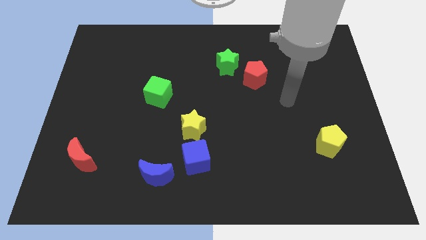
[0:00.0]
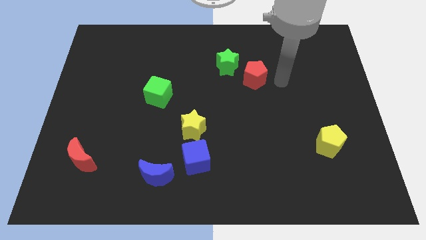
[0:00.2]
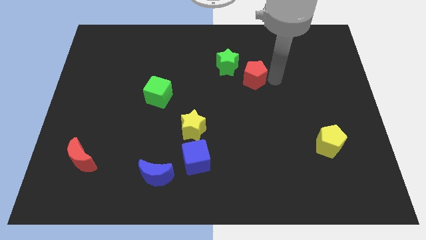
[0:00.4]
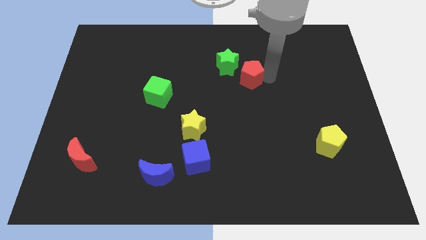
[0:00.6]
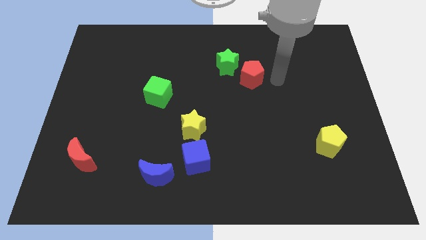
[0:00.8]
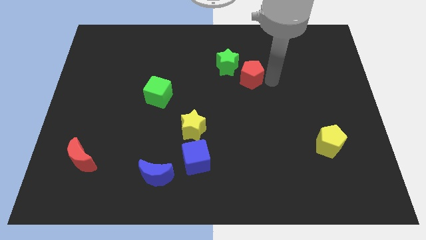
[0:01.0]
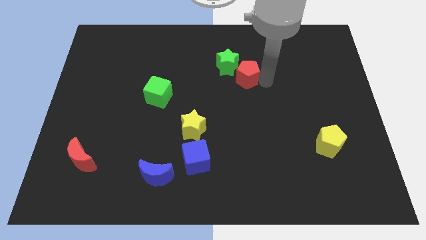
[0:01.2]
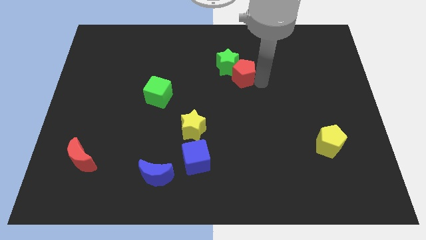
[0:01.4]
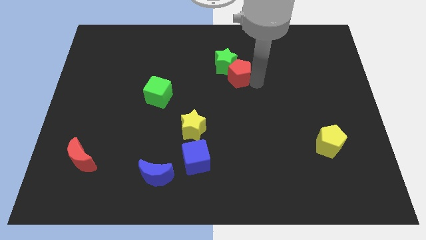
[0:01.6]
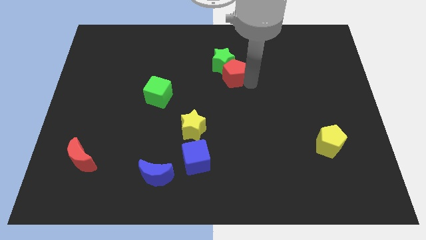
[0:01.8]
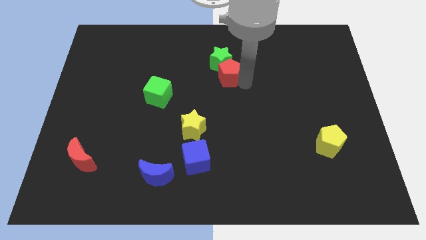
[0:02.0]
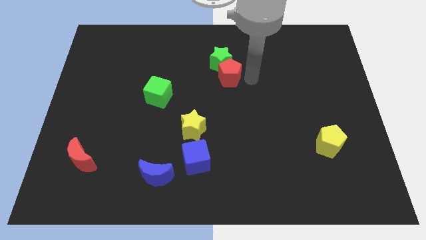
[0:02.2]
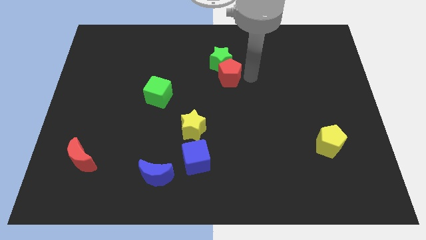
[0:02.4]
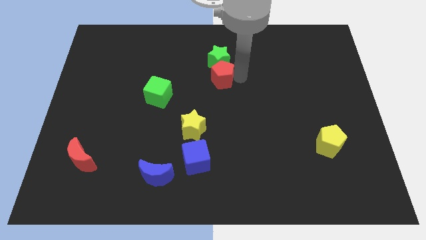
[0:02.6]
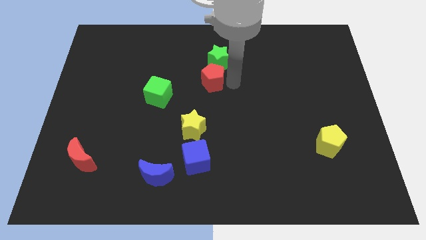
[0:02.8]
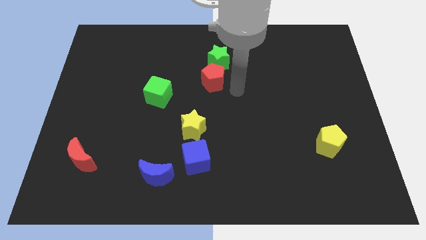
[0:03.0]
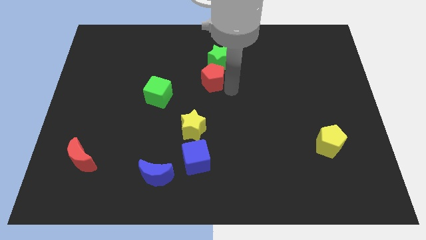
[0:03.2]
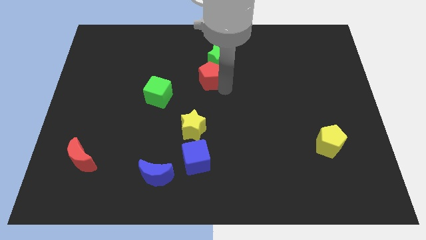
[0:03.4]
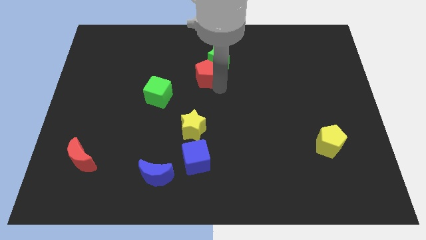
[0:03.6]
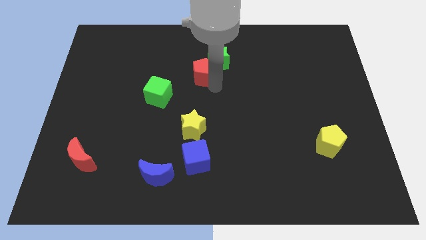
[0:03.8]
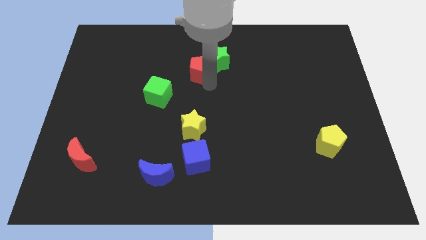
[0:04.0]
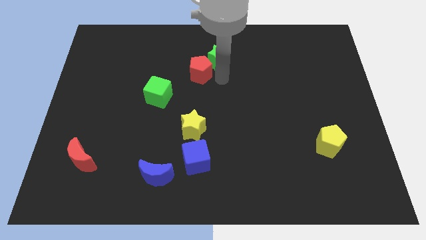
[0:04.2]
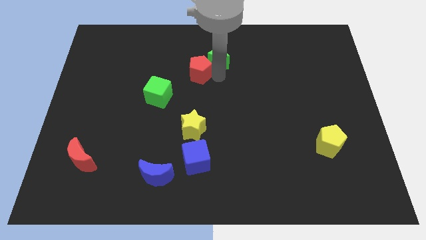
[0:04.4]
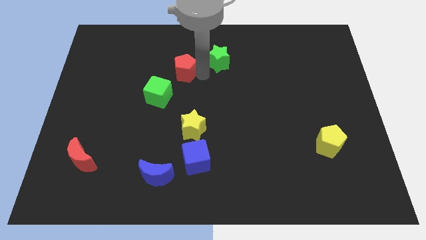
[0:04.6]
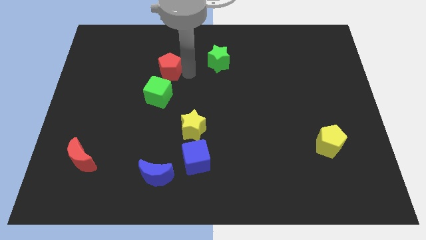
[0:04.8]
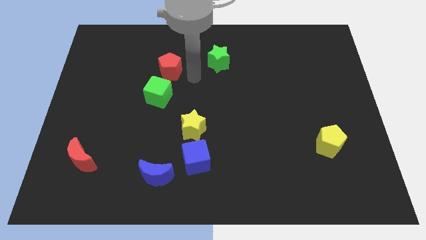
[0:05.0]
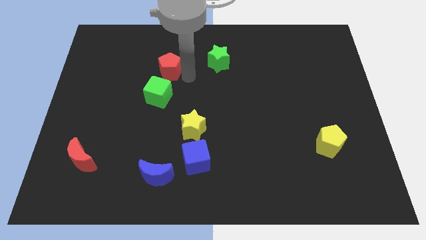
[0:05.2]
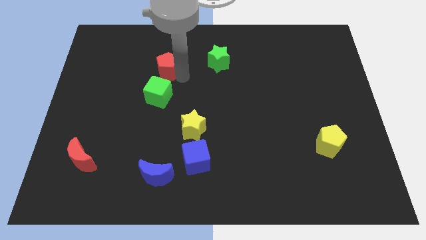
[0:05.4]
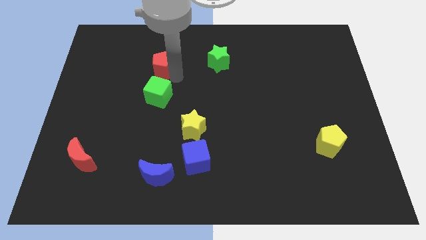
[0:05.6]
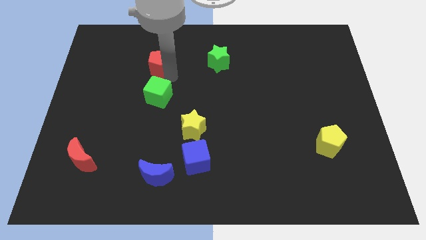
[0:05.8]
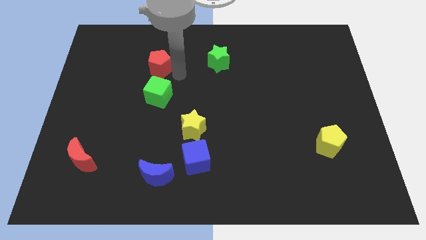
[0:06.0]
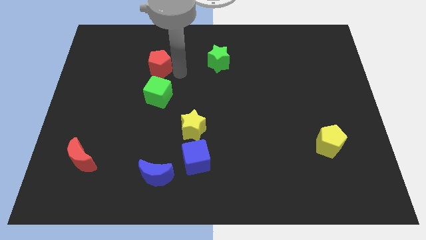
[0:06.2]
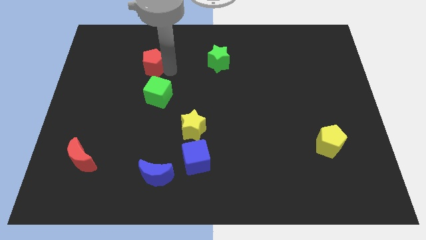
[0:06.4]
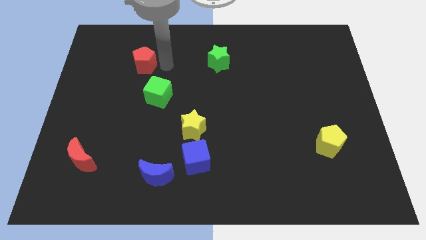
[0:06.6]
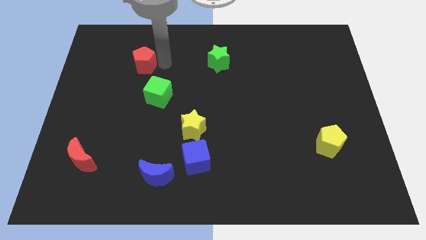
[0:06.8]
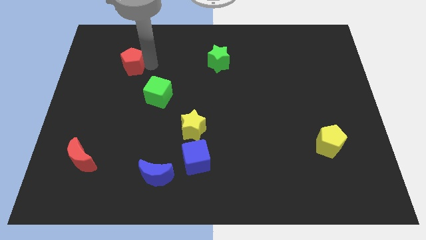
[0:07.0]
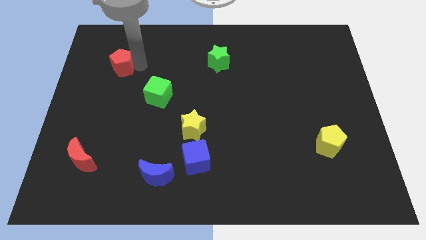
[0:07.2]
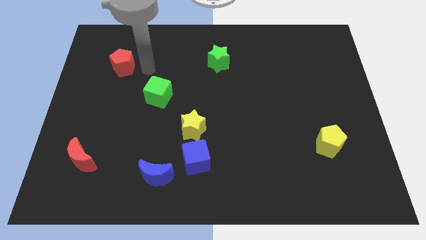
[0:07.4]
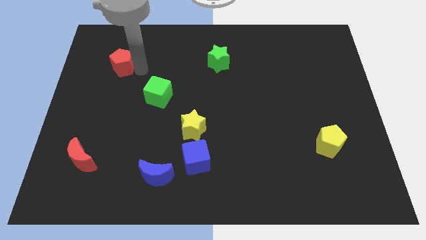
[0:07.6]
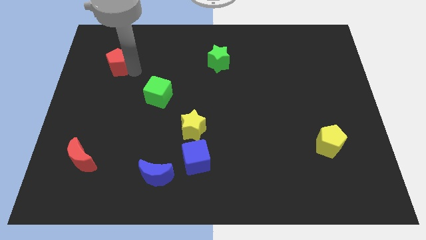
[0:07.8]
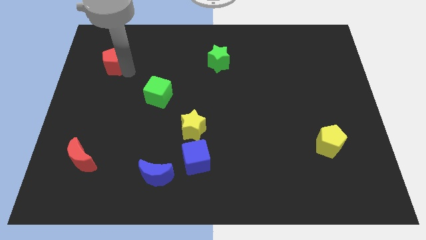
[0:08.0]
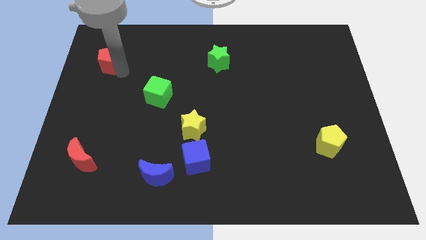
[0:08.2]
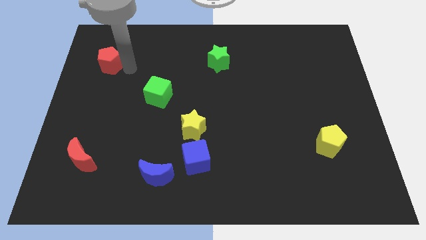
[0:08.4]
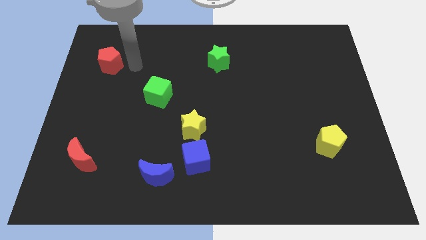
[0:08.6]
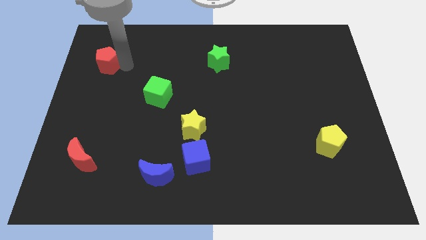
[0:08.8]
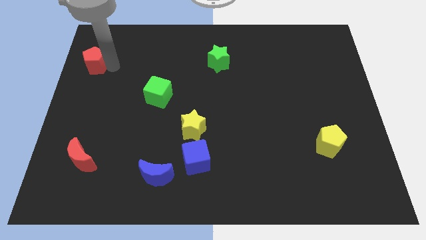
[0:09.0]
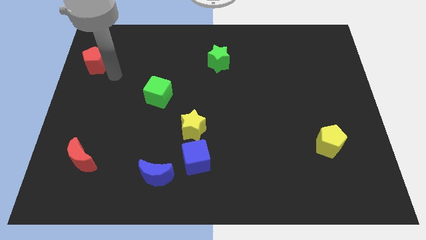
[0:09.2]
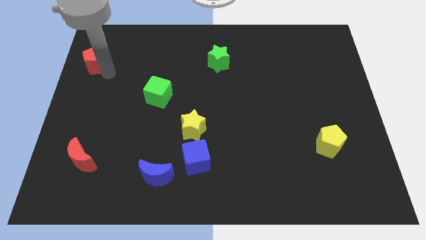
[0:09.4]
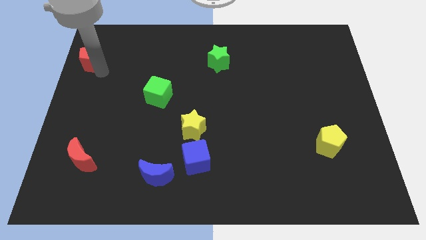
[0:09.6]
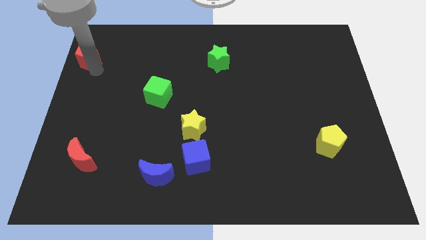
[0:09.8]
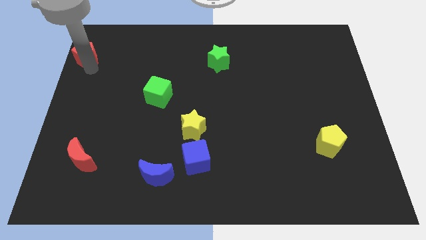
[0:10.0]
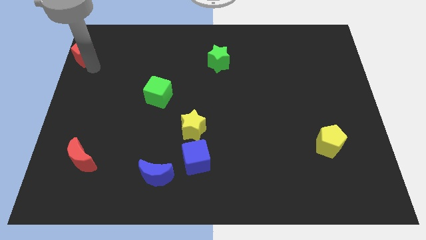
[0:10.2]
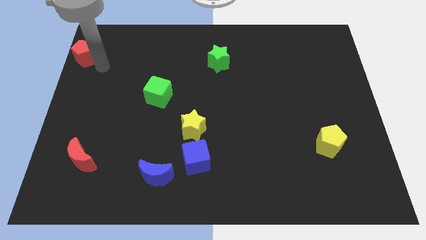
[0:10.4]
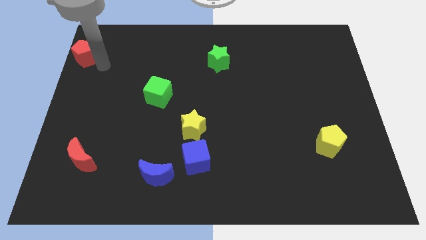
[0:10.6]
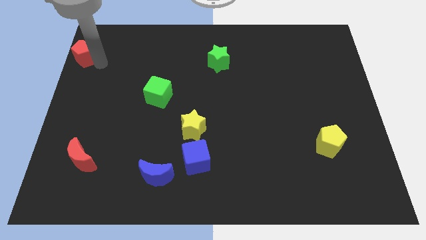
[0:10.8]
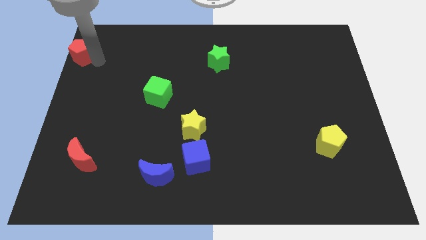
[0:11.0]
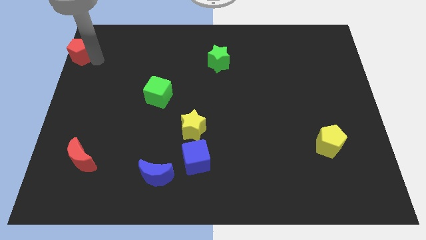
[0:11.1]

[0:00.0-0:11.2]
put the red pentagon to the top left

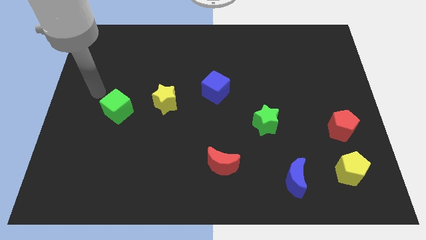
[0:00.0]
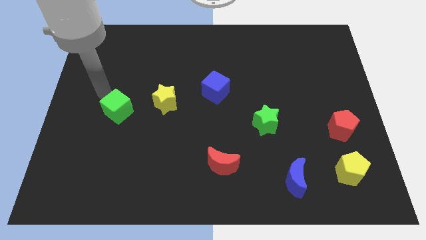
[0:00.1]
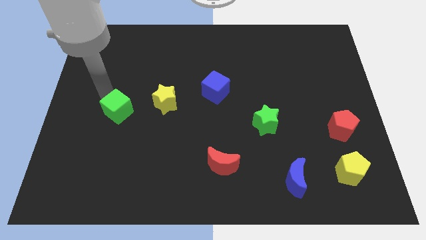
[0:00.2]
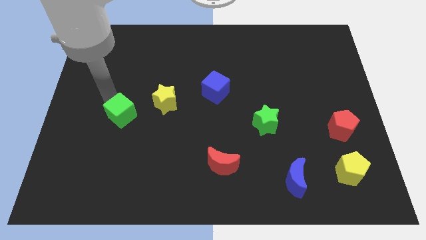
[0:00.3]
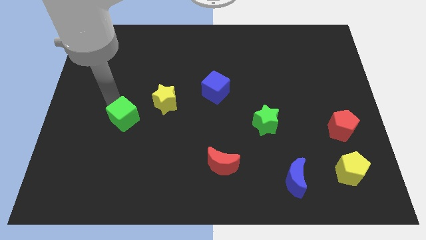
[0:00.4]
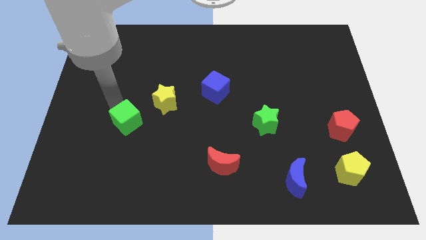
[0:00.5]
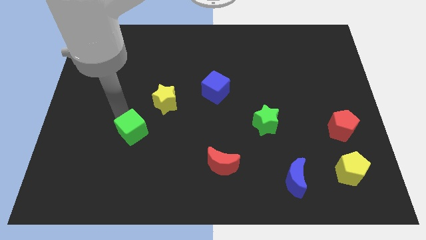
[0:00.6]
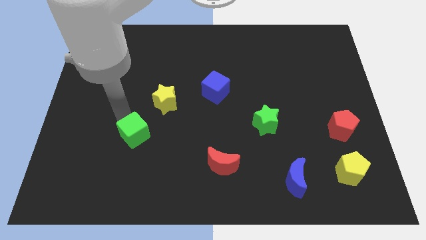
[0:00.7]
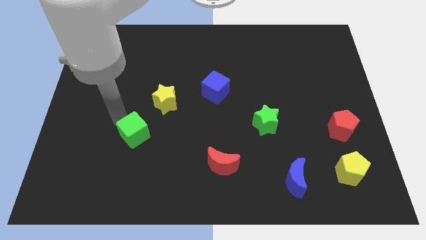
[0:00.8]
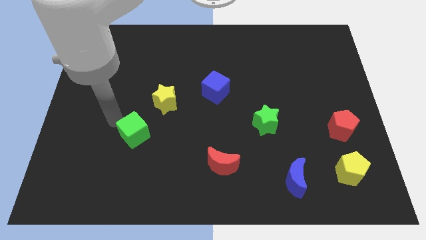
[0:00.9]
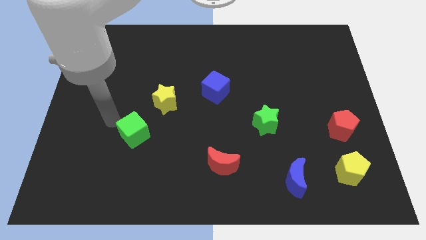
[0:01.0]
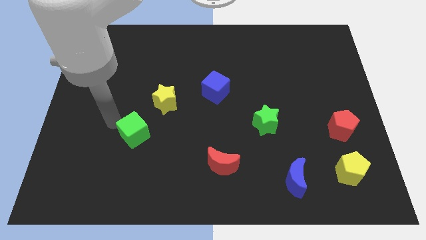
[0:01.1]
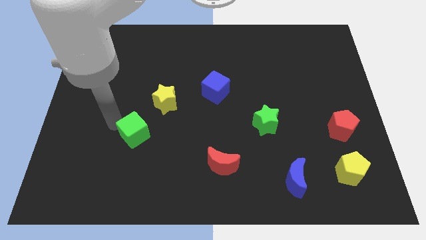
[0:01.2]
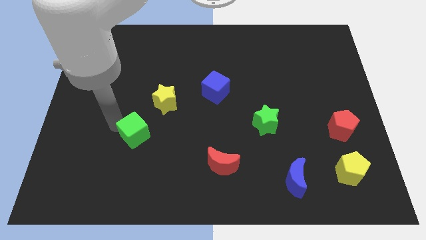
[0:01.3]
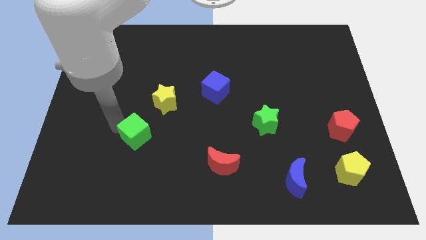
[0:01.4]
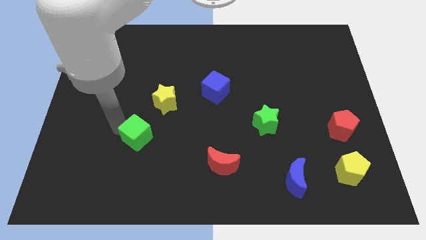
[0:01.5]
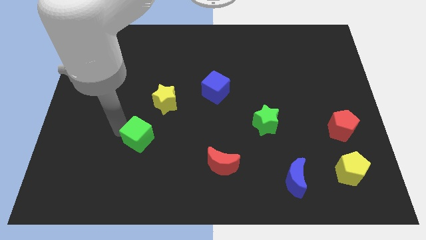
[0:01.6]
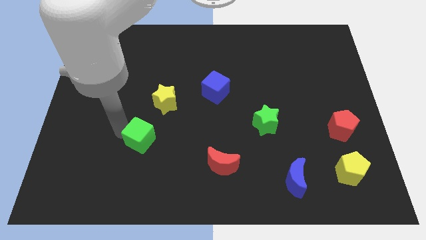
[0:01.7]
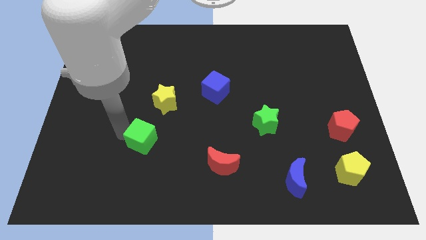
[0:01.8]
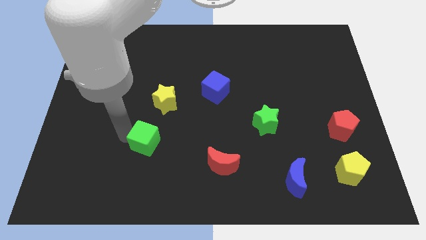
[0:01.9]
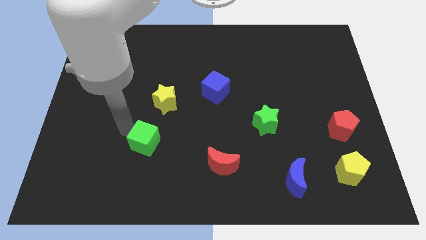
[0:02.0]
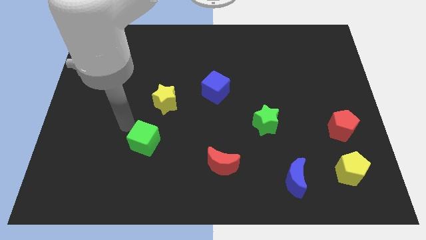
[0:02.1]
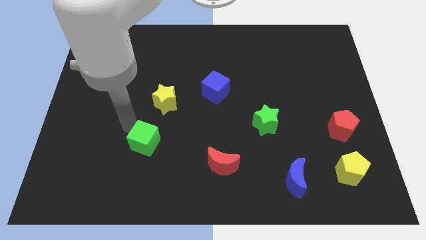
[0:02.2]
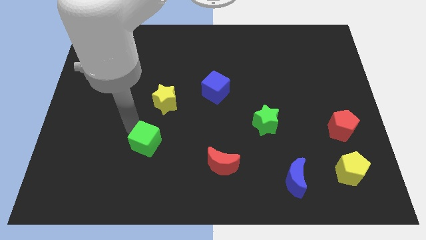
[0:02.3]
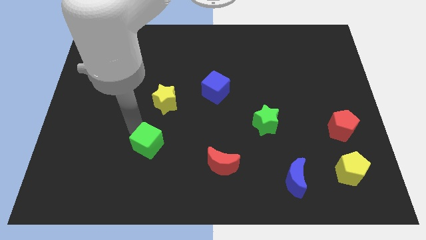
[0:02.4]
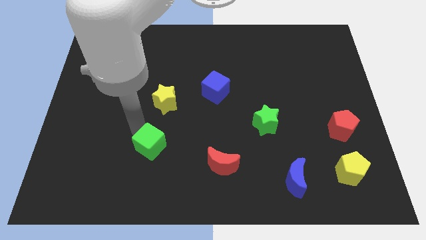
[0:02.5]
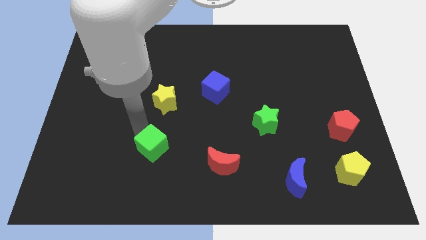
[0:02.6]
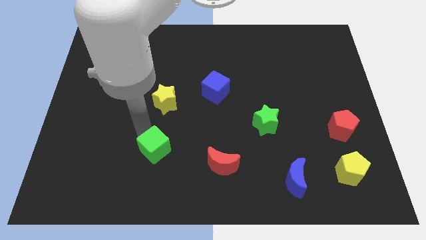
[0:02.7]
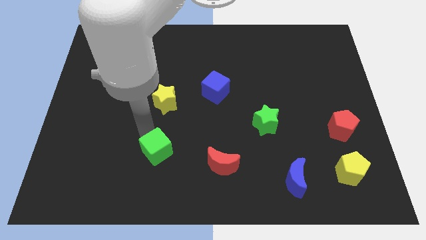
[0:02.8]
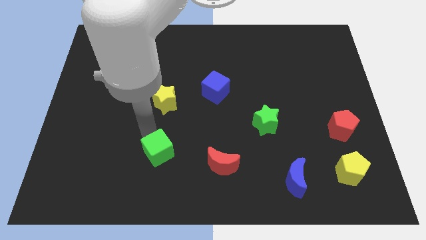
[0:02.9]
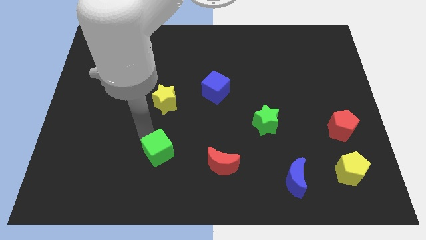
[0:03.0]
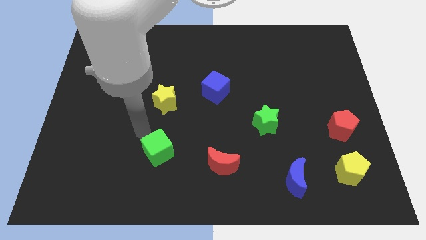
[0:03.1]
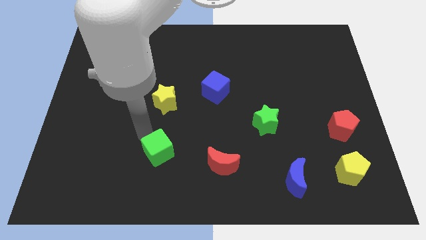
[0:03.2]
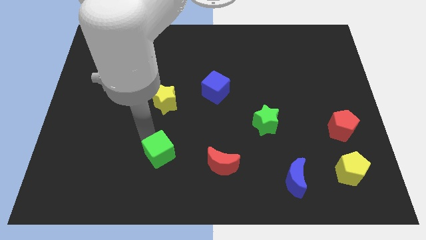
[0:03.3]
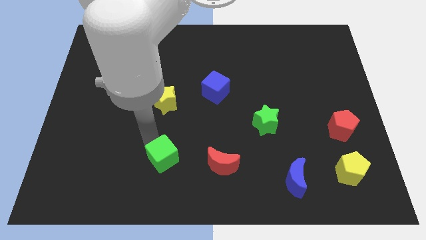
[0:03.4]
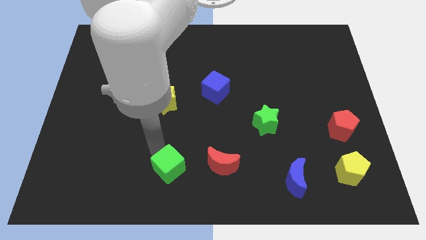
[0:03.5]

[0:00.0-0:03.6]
slide the green cube to the bottom
